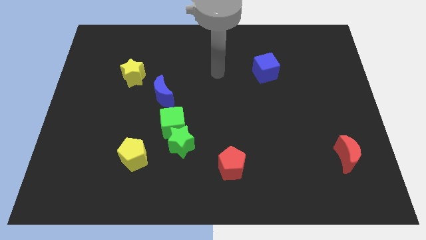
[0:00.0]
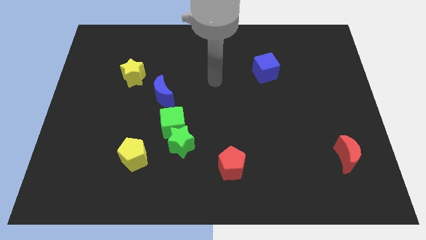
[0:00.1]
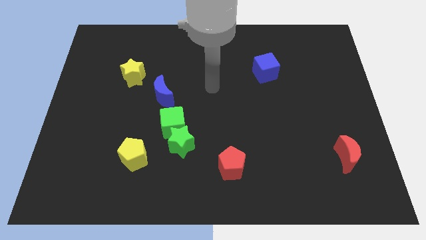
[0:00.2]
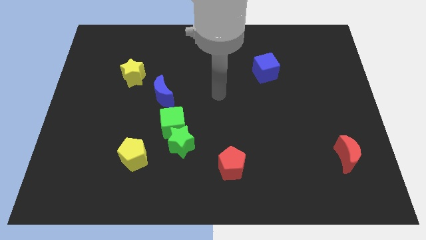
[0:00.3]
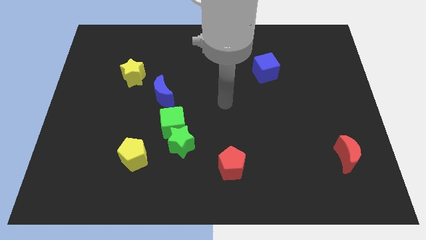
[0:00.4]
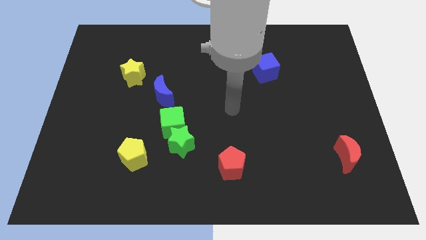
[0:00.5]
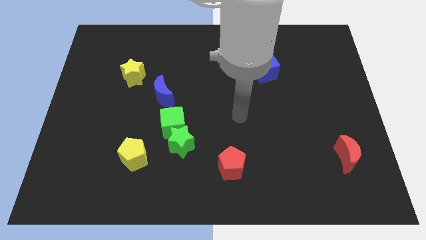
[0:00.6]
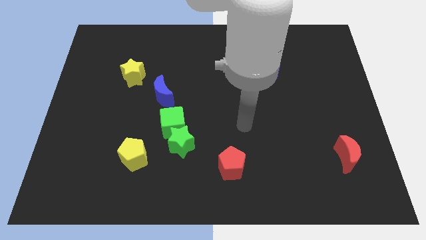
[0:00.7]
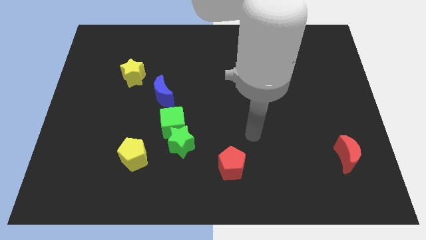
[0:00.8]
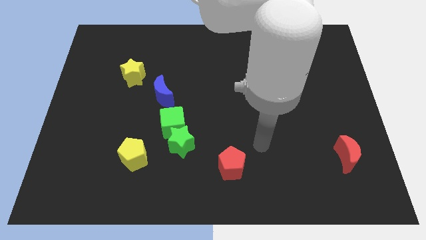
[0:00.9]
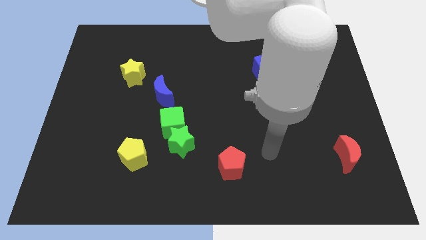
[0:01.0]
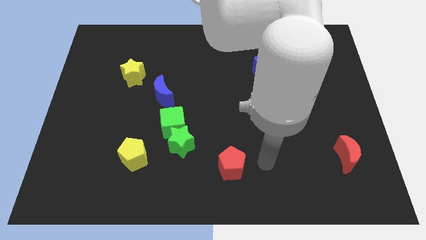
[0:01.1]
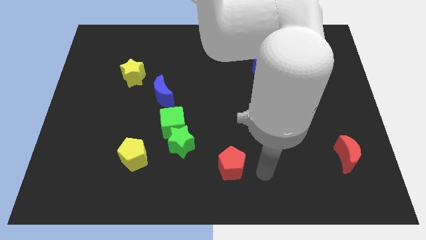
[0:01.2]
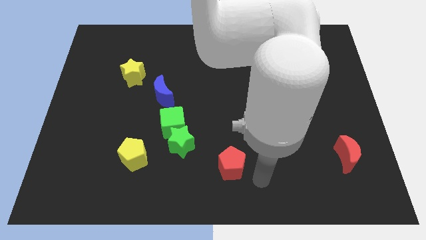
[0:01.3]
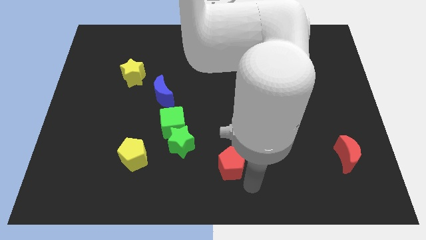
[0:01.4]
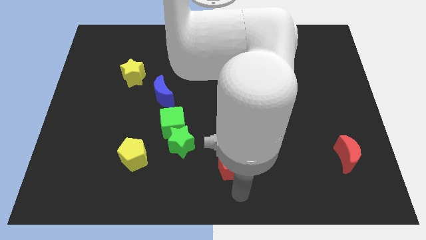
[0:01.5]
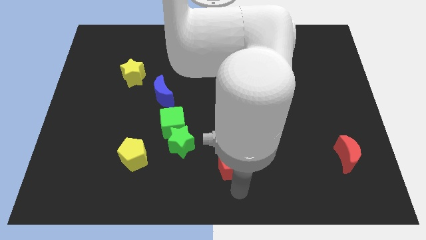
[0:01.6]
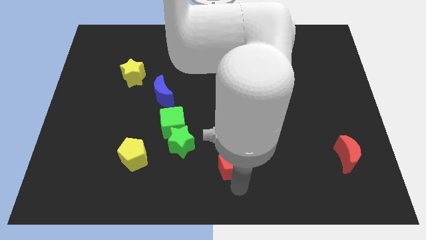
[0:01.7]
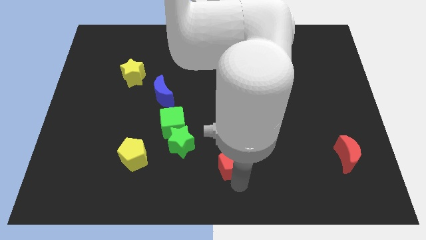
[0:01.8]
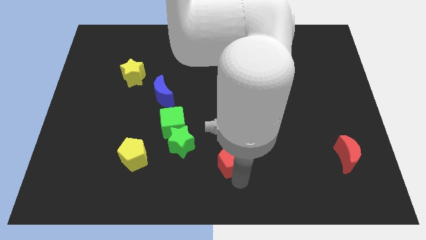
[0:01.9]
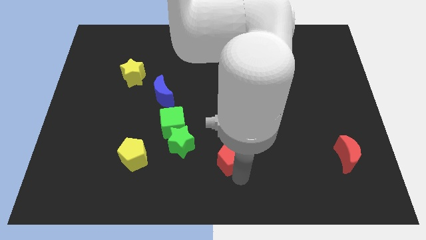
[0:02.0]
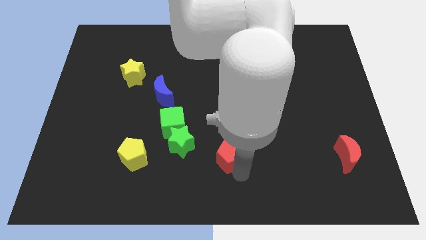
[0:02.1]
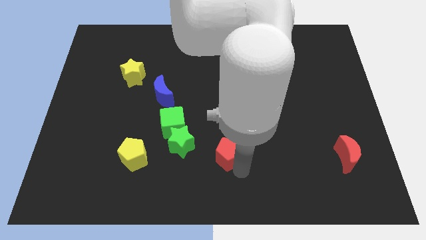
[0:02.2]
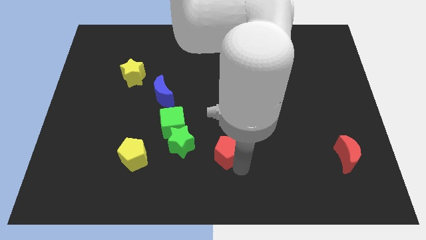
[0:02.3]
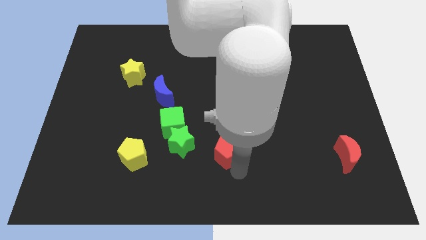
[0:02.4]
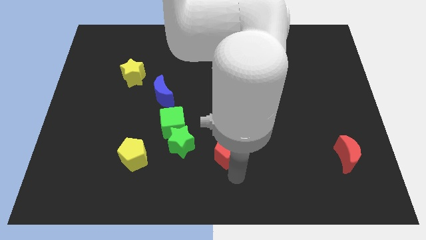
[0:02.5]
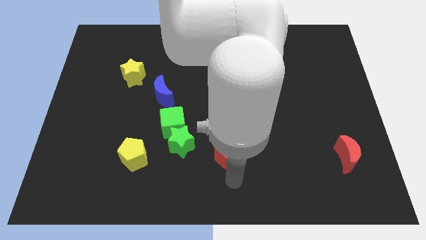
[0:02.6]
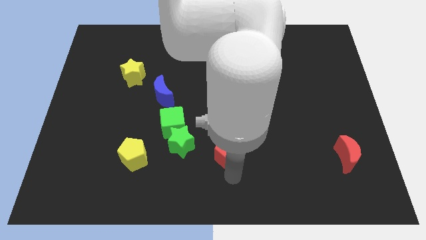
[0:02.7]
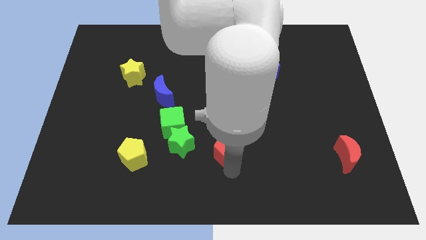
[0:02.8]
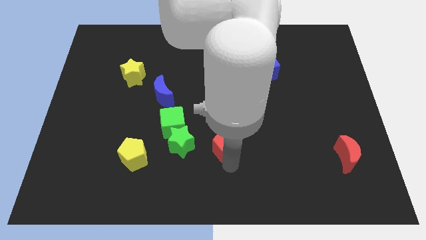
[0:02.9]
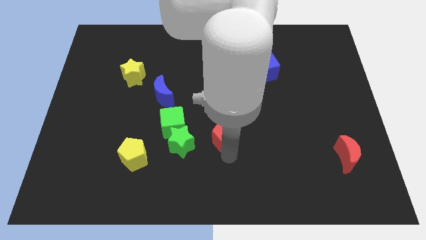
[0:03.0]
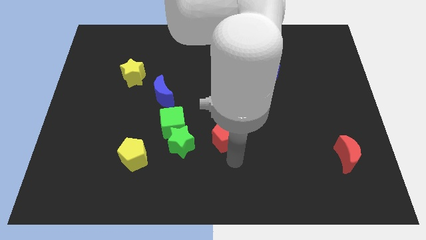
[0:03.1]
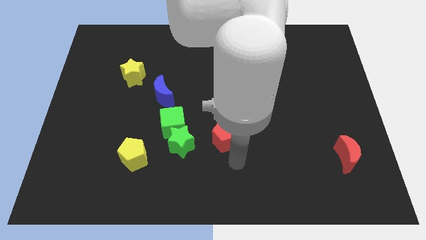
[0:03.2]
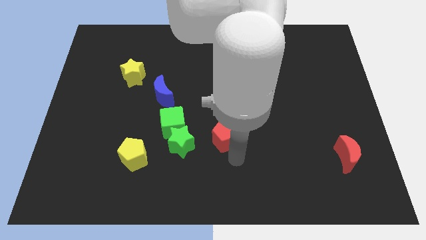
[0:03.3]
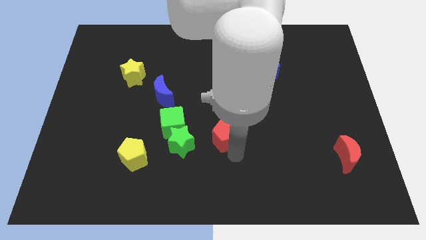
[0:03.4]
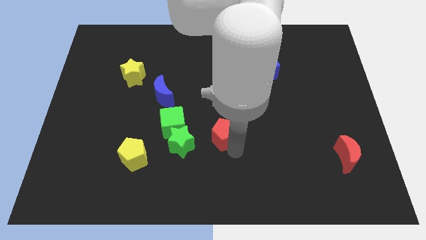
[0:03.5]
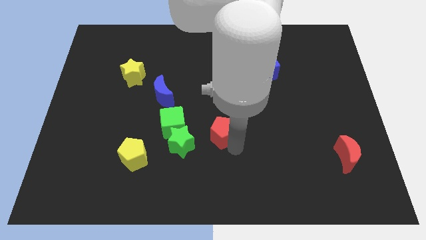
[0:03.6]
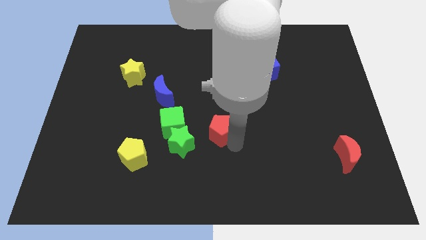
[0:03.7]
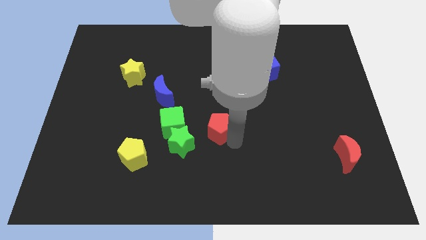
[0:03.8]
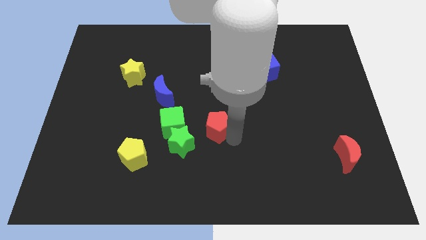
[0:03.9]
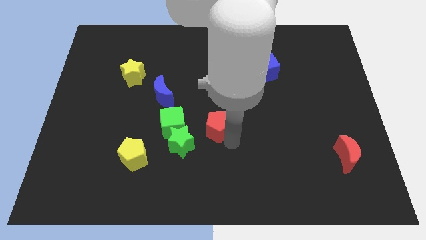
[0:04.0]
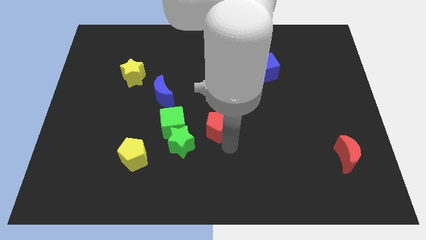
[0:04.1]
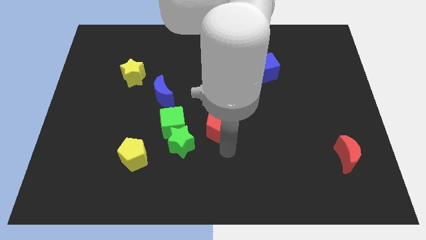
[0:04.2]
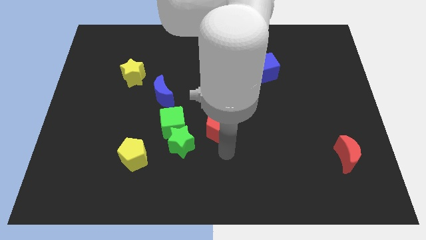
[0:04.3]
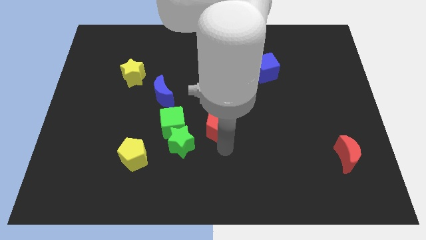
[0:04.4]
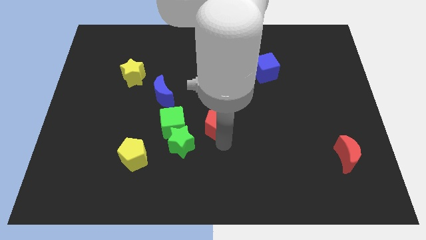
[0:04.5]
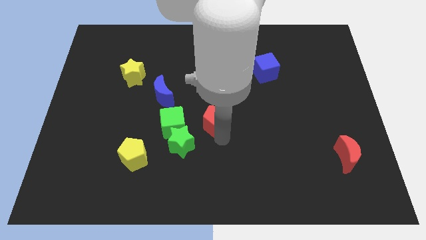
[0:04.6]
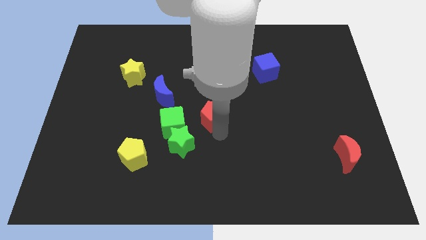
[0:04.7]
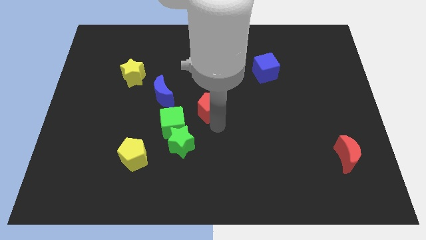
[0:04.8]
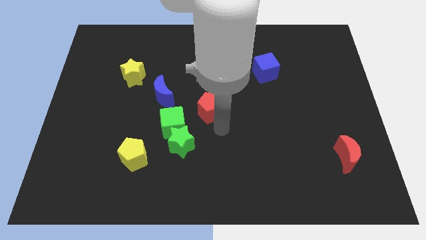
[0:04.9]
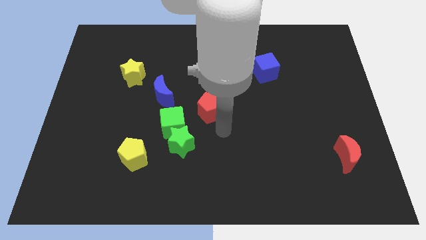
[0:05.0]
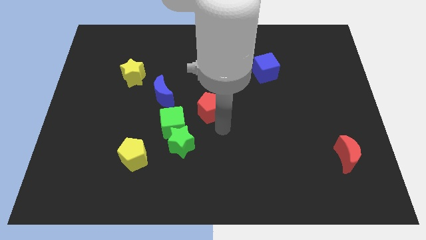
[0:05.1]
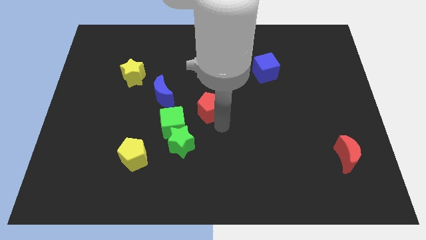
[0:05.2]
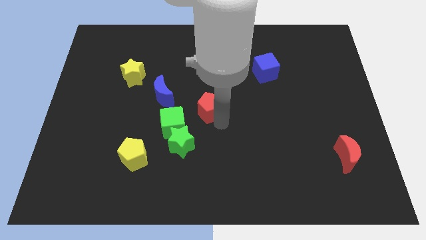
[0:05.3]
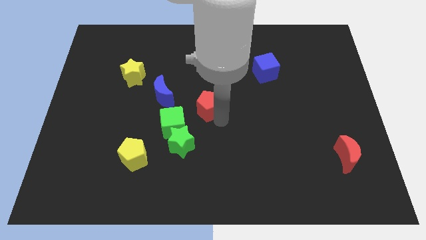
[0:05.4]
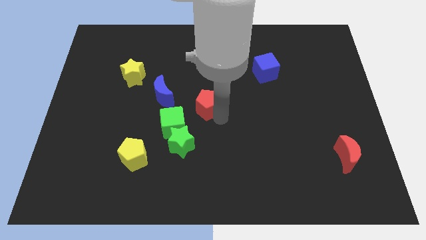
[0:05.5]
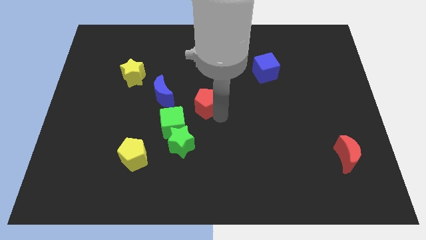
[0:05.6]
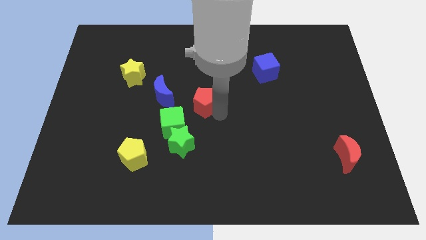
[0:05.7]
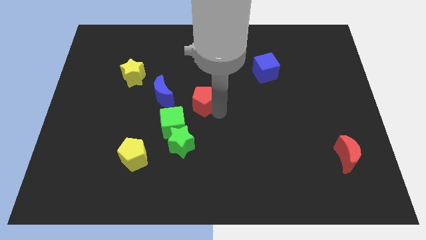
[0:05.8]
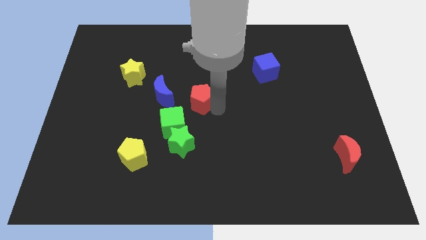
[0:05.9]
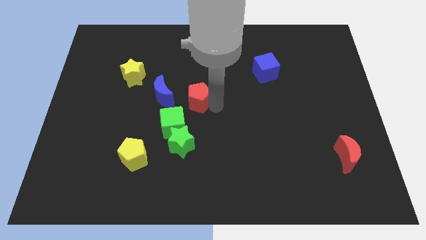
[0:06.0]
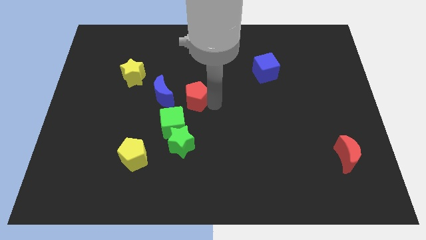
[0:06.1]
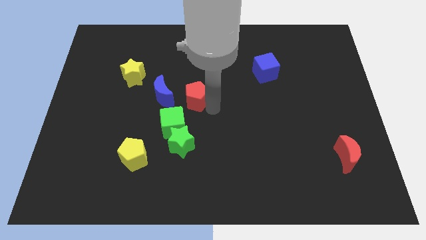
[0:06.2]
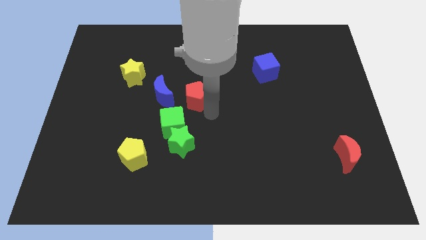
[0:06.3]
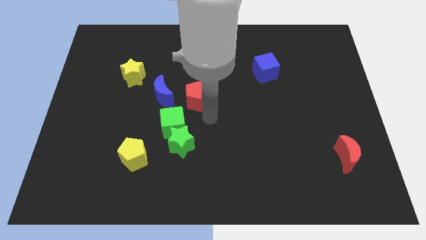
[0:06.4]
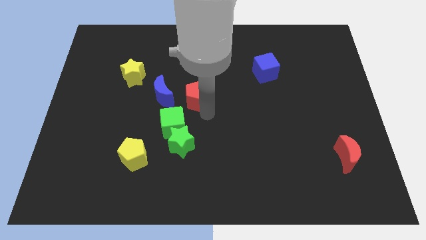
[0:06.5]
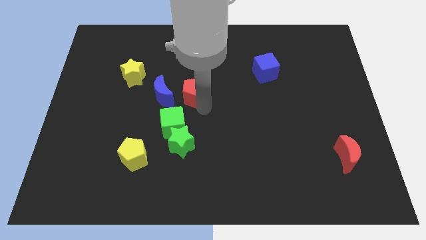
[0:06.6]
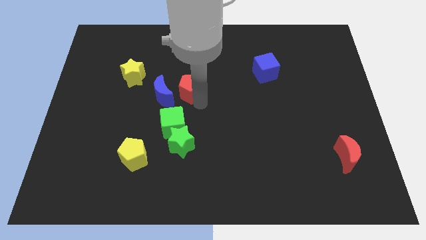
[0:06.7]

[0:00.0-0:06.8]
slide the red pentagon to the top right side of the blue moon
